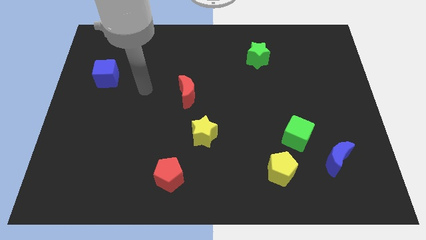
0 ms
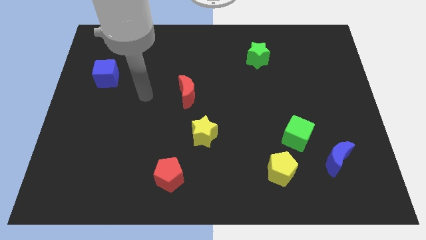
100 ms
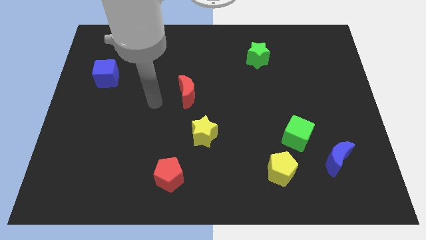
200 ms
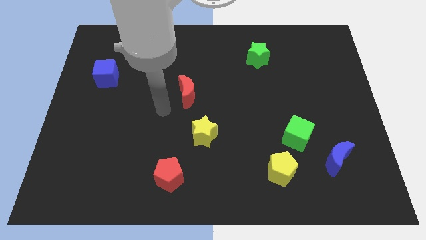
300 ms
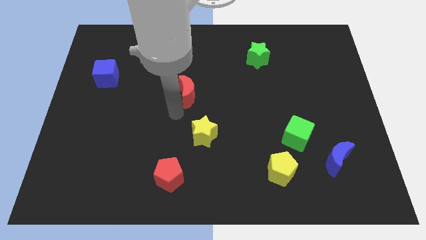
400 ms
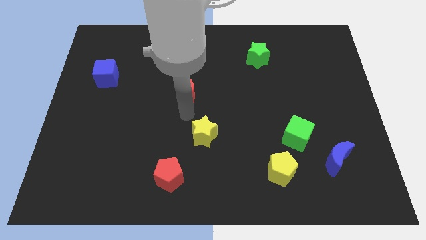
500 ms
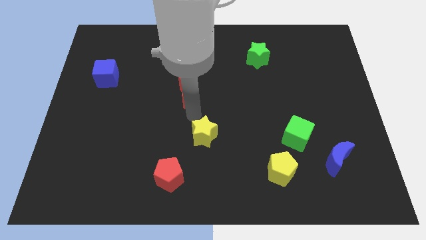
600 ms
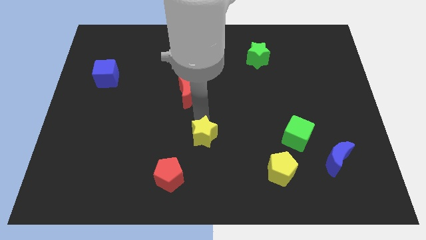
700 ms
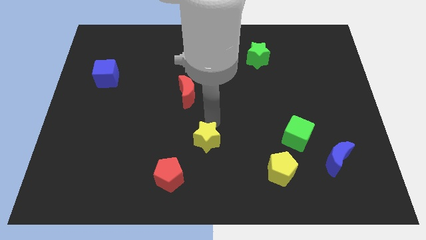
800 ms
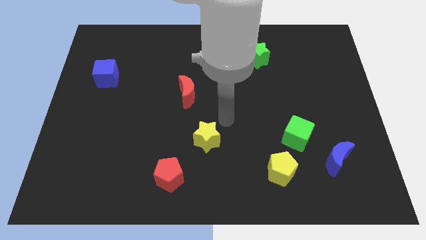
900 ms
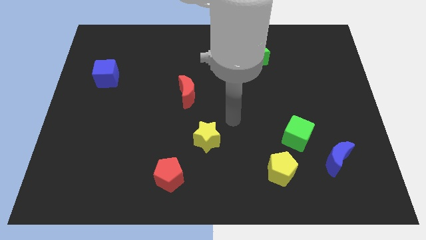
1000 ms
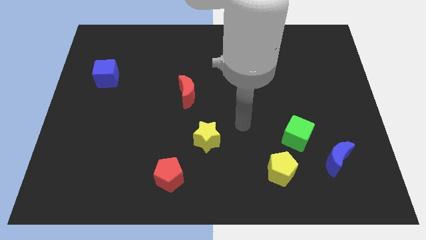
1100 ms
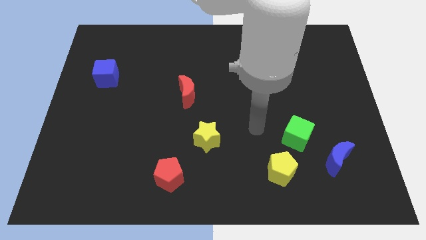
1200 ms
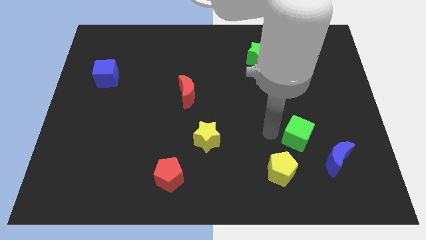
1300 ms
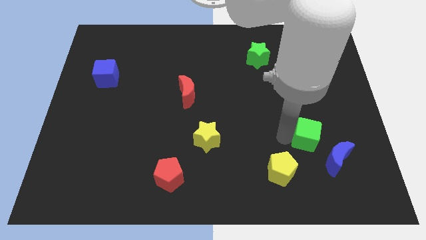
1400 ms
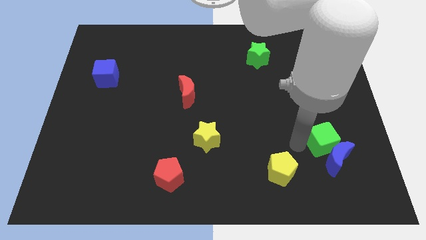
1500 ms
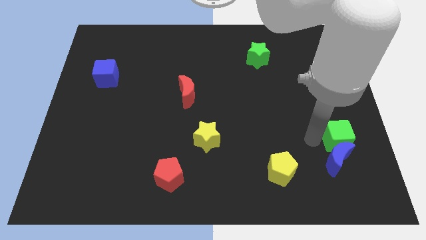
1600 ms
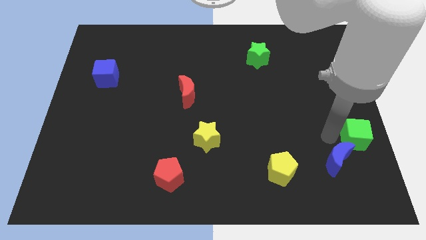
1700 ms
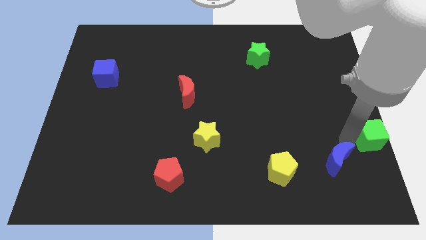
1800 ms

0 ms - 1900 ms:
move the blue moon away from the green cube

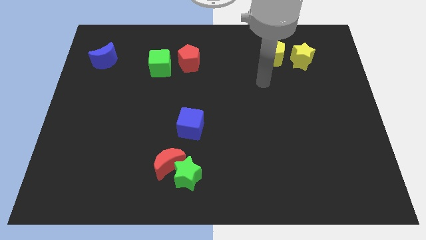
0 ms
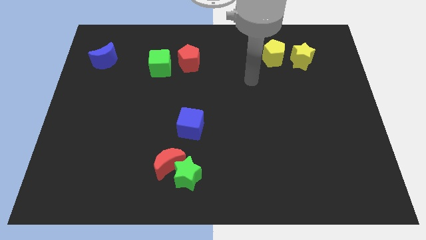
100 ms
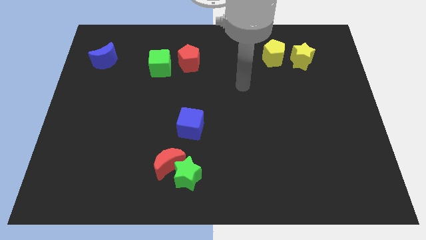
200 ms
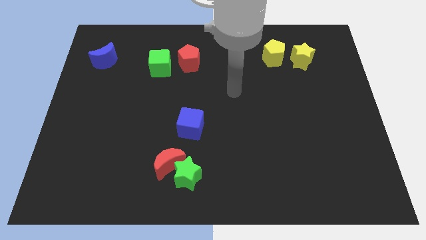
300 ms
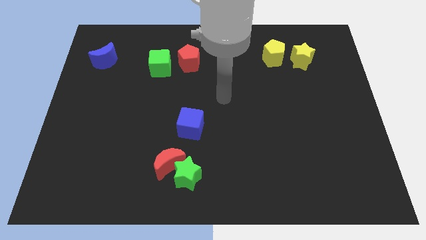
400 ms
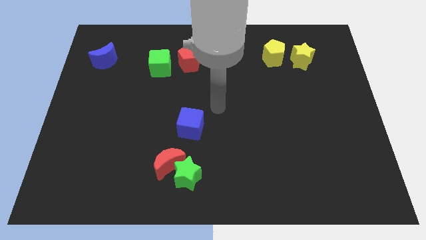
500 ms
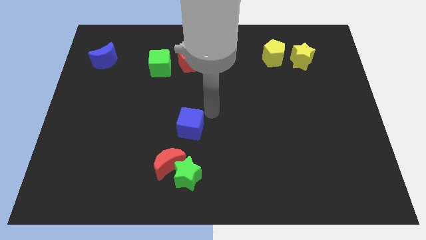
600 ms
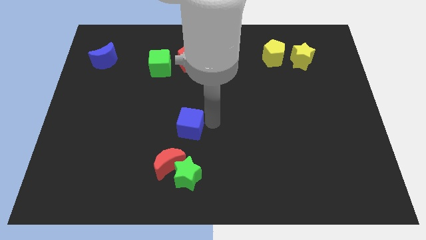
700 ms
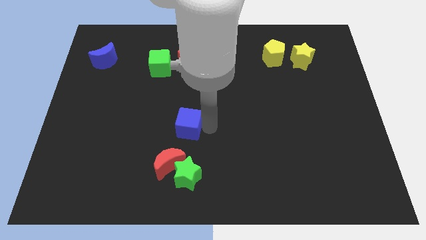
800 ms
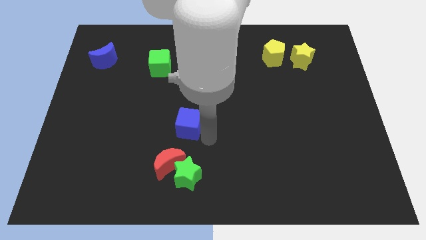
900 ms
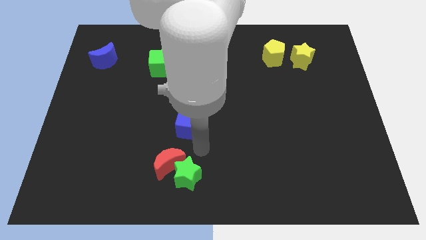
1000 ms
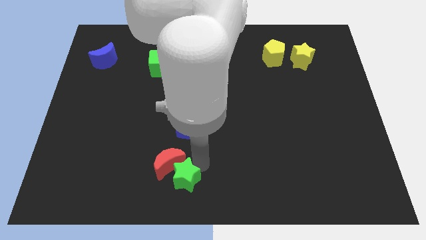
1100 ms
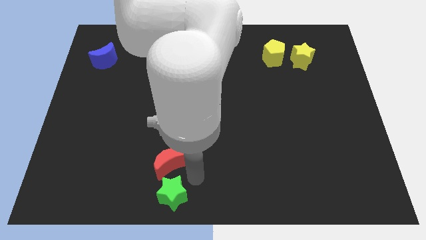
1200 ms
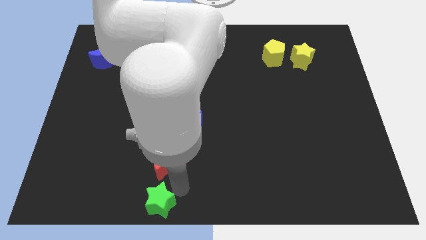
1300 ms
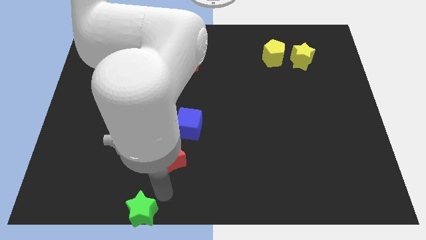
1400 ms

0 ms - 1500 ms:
separate the red moon from the green star

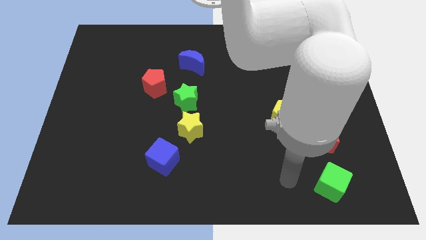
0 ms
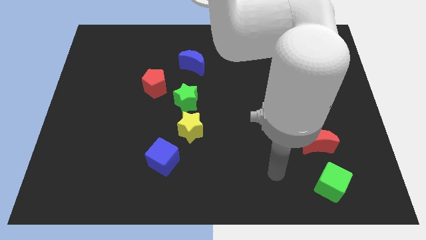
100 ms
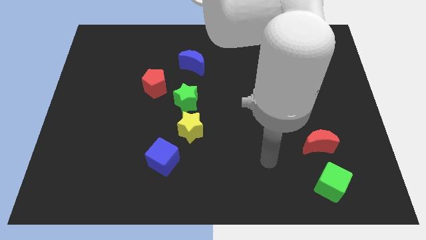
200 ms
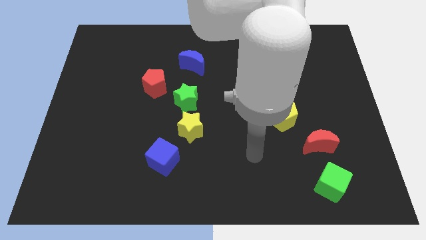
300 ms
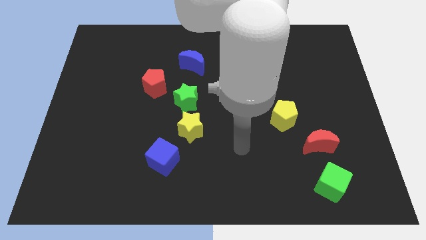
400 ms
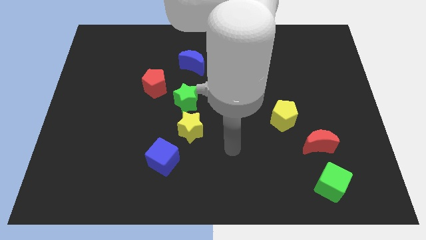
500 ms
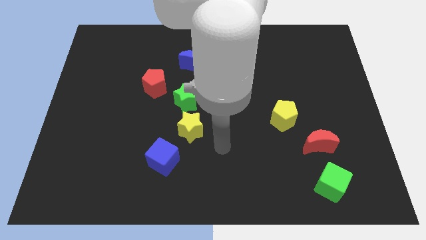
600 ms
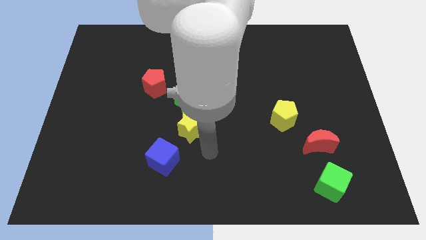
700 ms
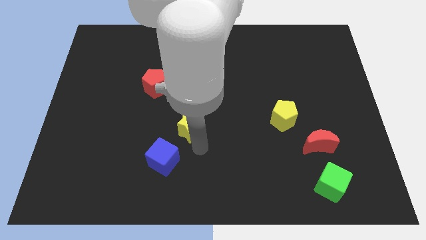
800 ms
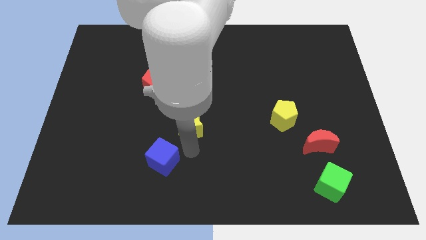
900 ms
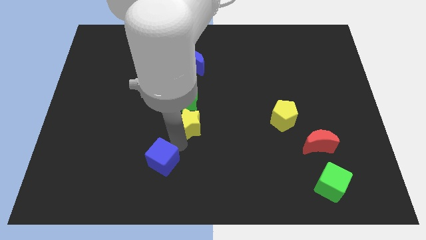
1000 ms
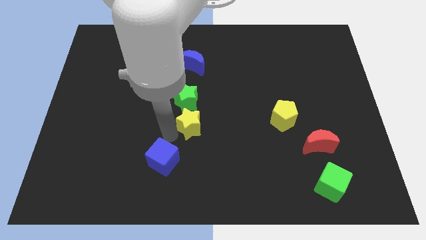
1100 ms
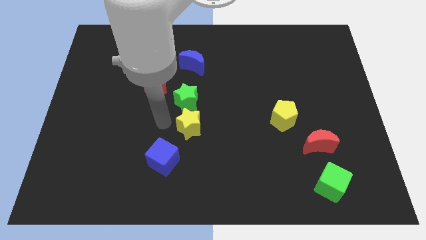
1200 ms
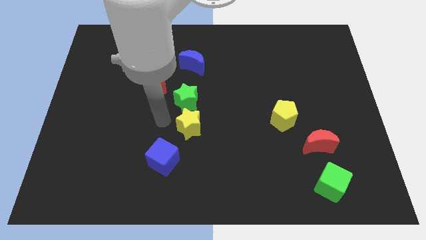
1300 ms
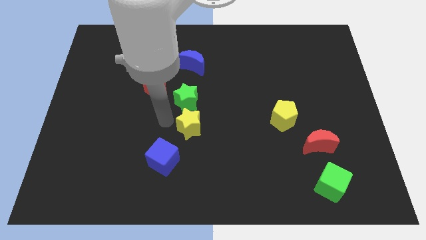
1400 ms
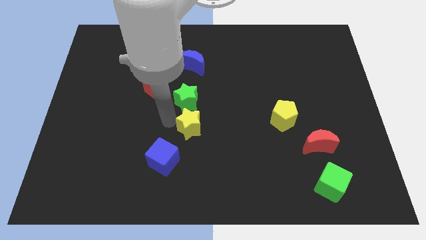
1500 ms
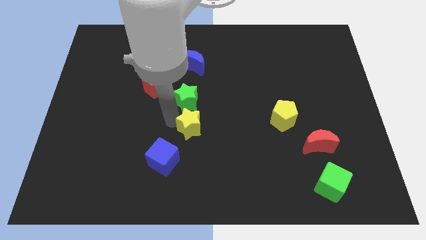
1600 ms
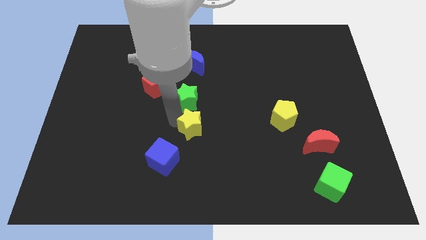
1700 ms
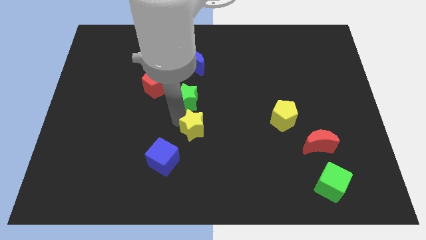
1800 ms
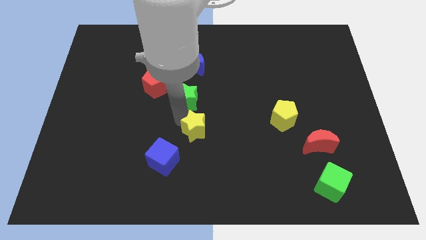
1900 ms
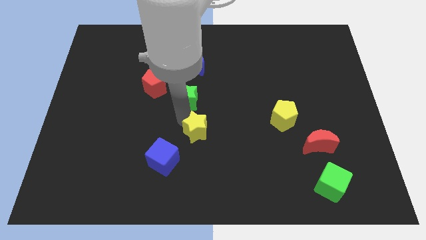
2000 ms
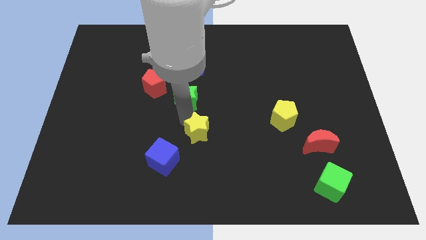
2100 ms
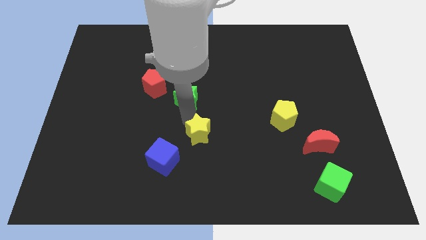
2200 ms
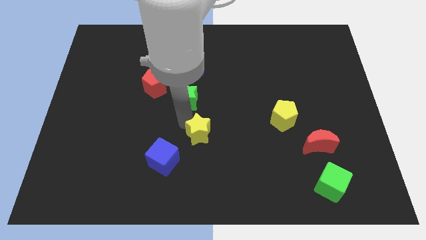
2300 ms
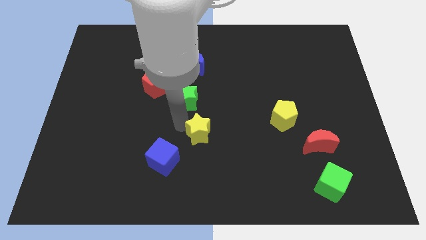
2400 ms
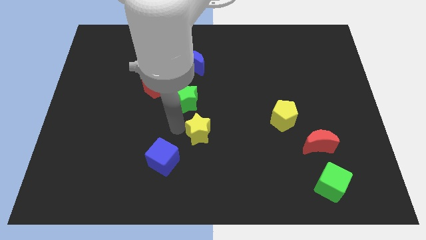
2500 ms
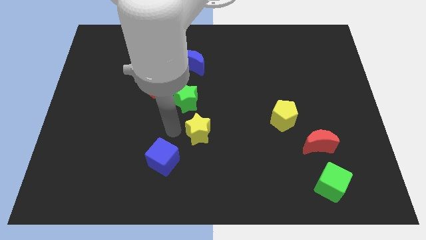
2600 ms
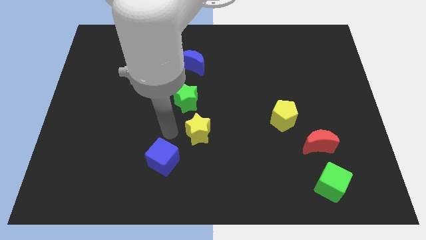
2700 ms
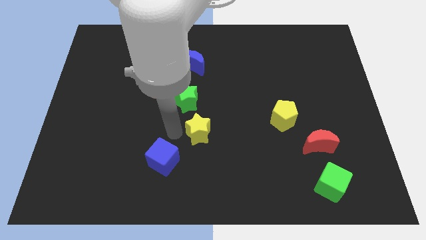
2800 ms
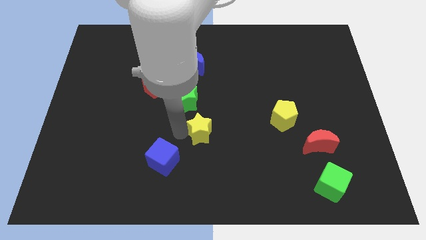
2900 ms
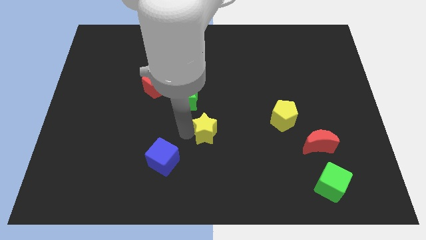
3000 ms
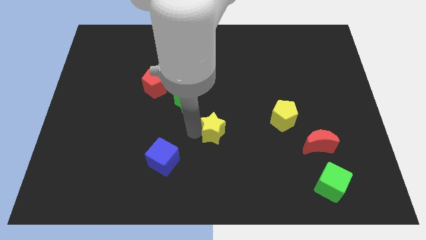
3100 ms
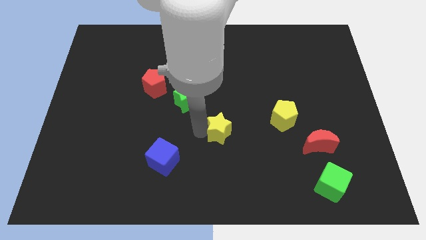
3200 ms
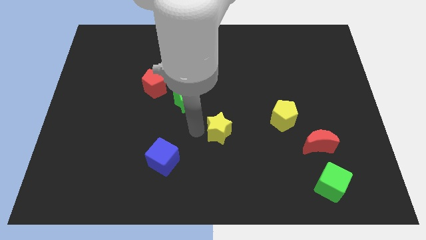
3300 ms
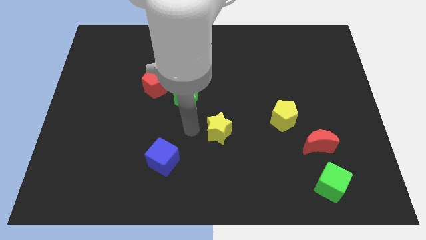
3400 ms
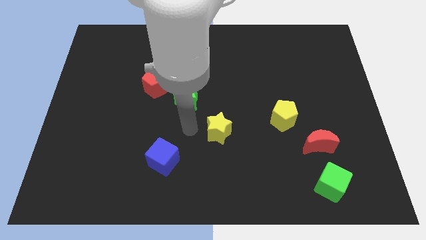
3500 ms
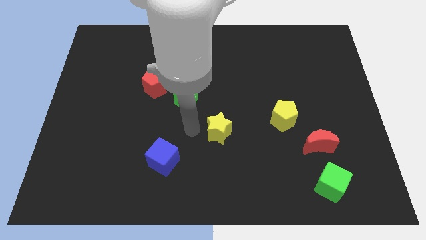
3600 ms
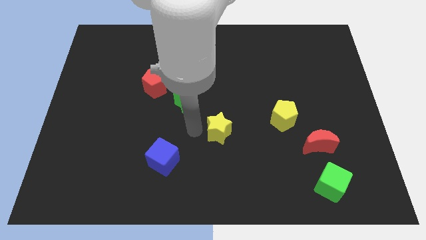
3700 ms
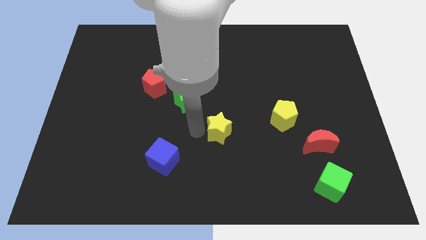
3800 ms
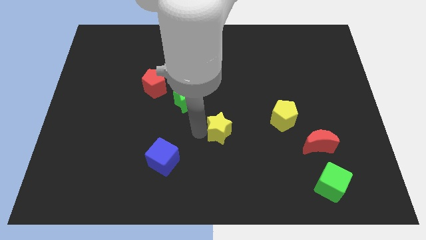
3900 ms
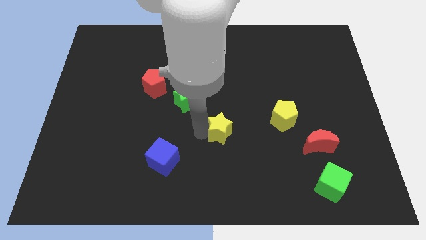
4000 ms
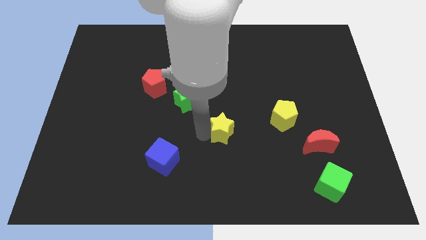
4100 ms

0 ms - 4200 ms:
move the yellow star away from the green star and blue cube

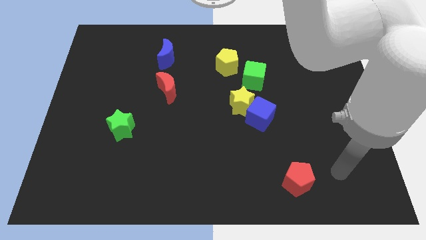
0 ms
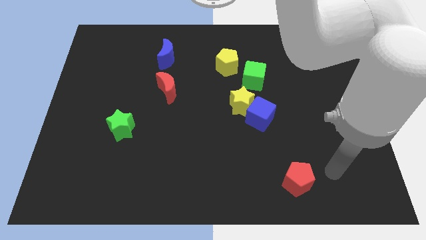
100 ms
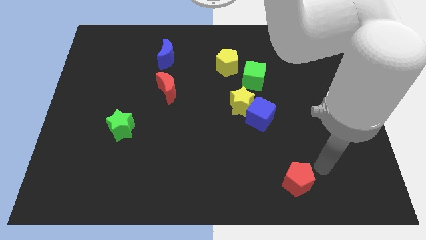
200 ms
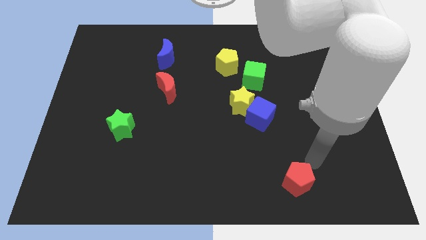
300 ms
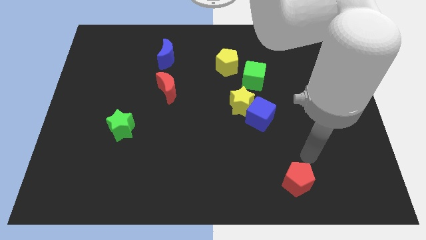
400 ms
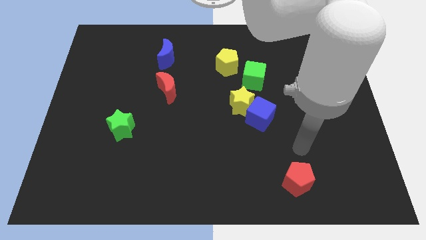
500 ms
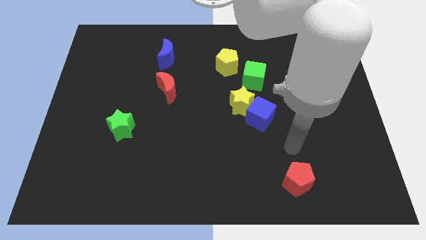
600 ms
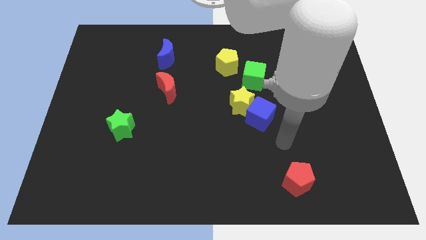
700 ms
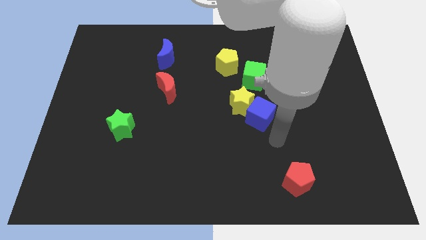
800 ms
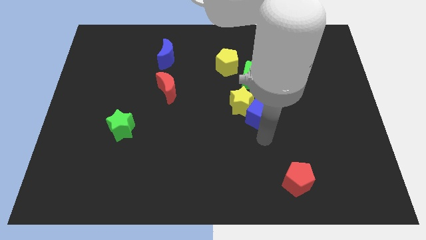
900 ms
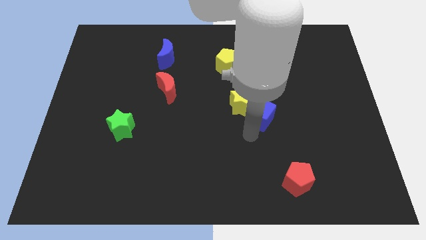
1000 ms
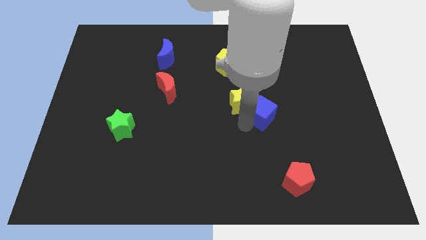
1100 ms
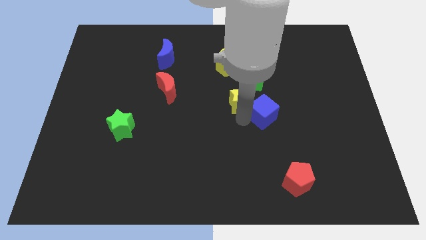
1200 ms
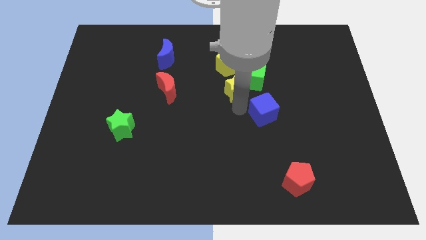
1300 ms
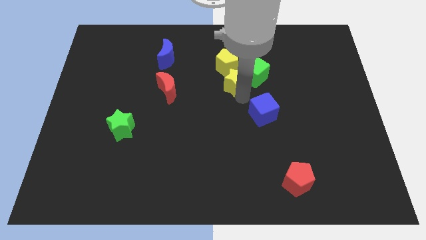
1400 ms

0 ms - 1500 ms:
pull the blue cube apart from the yellow star

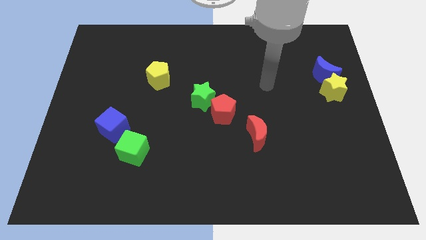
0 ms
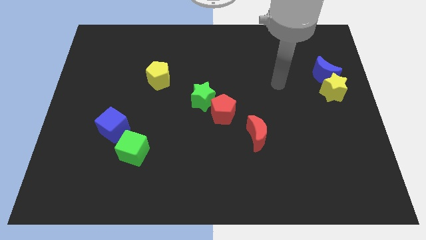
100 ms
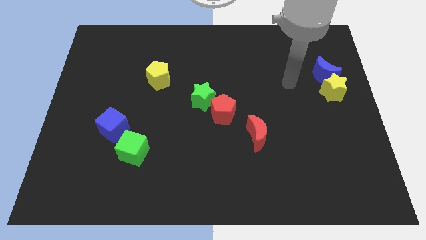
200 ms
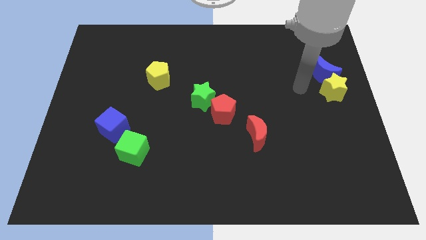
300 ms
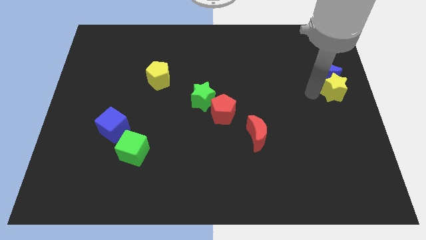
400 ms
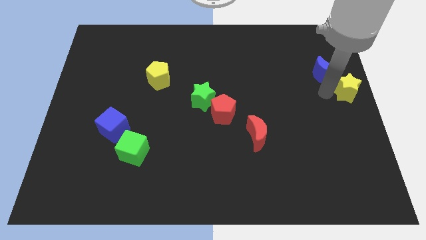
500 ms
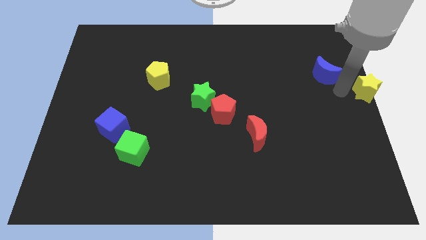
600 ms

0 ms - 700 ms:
move the blue moon away from the yellow star
